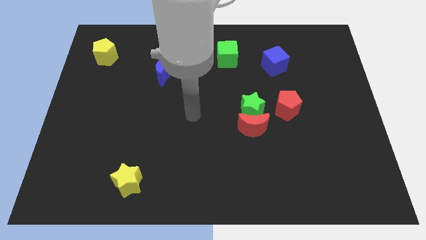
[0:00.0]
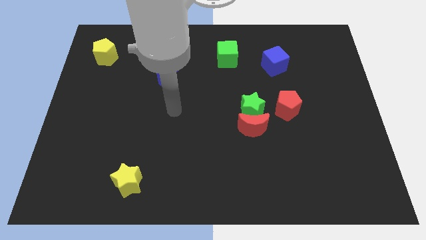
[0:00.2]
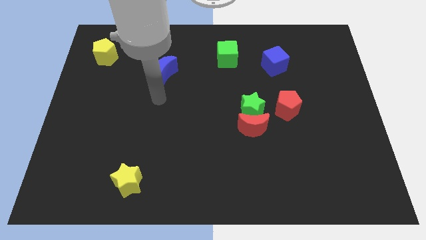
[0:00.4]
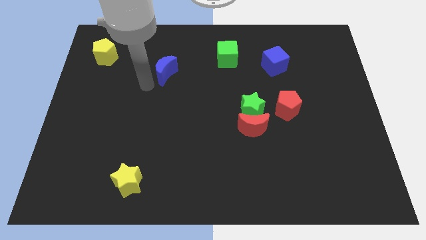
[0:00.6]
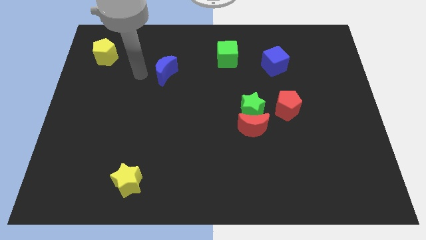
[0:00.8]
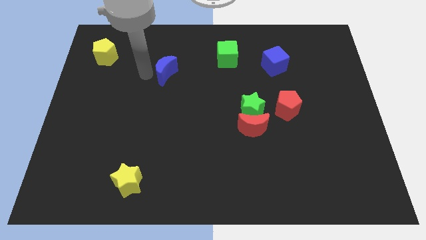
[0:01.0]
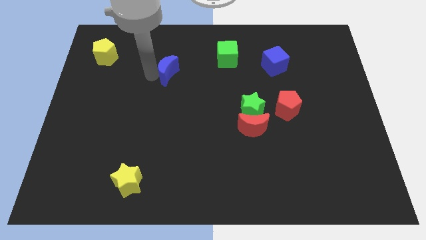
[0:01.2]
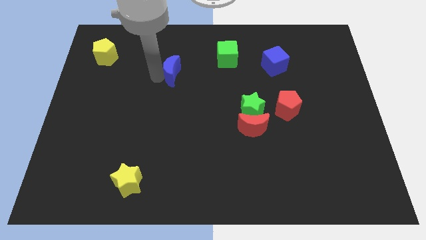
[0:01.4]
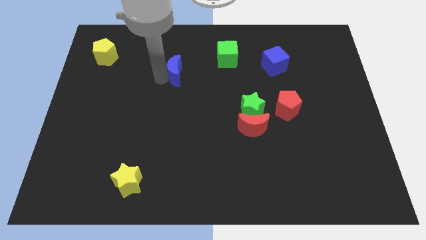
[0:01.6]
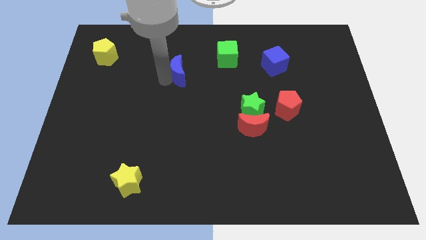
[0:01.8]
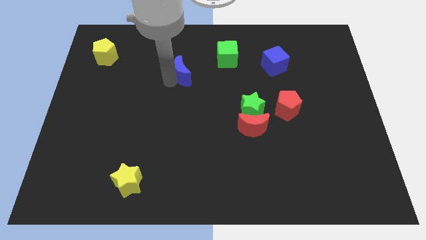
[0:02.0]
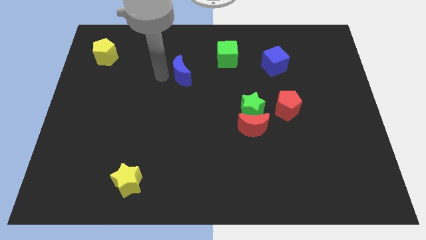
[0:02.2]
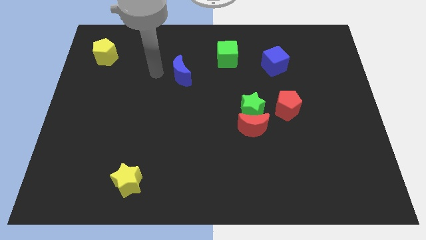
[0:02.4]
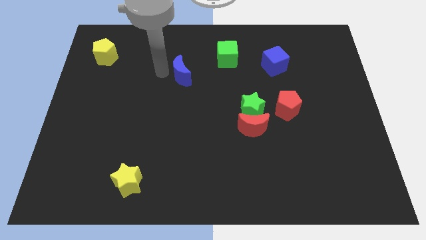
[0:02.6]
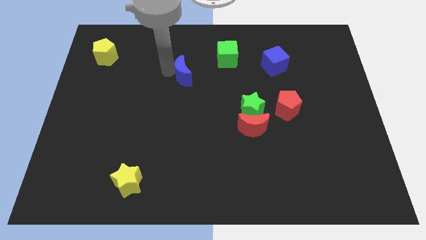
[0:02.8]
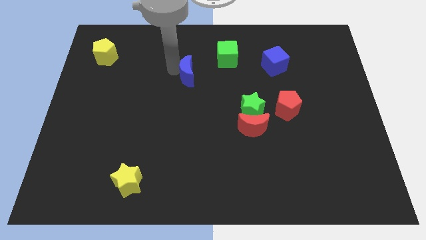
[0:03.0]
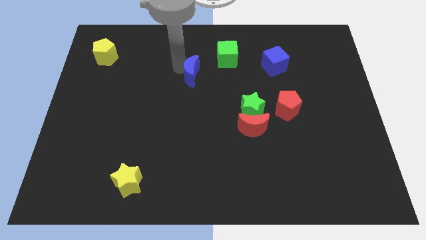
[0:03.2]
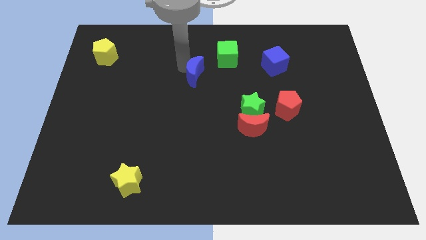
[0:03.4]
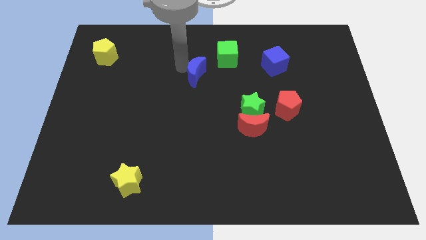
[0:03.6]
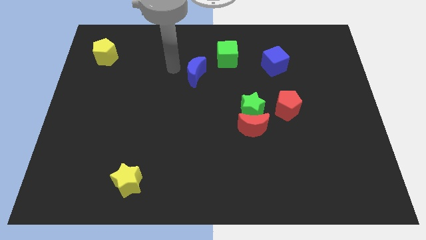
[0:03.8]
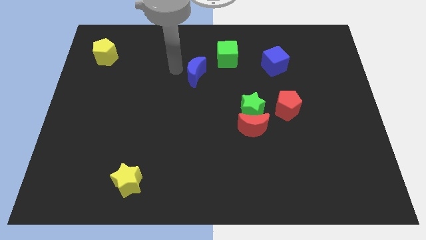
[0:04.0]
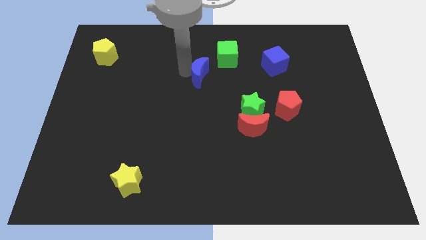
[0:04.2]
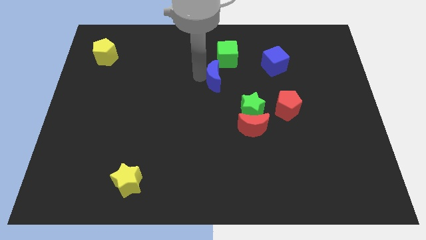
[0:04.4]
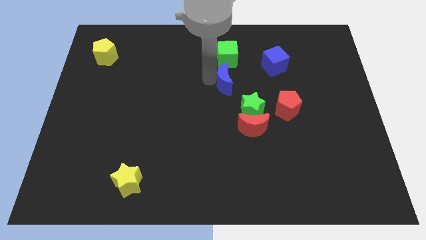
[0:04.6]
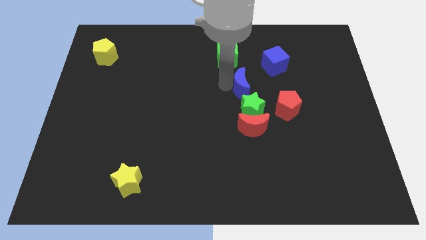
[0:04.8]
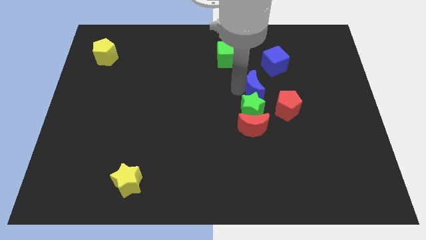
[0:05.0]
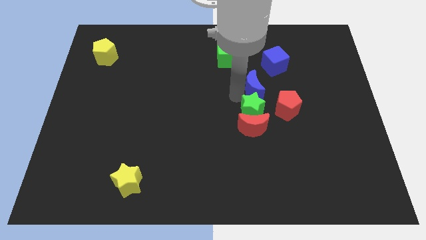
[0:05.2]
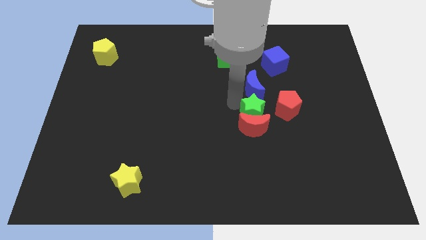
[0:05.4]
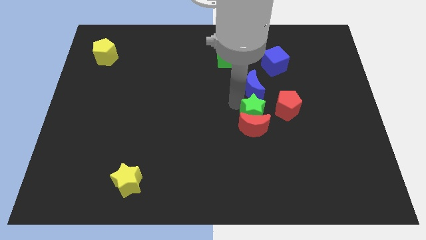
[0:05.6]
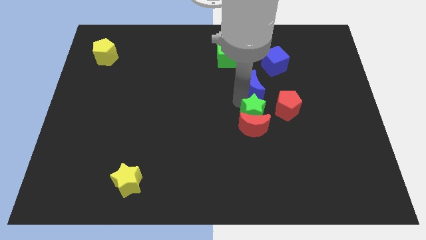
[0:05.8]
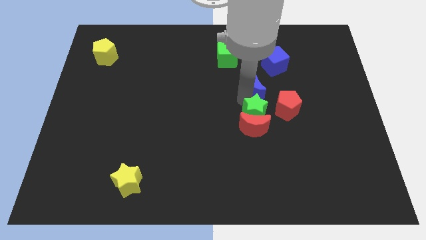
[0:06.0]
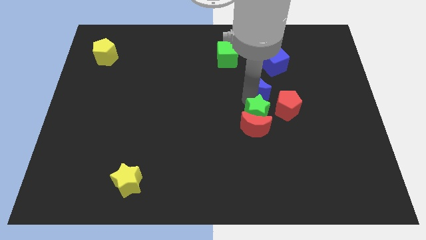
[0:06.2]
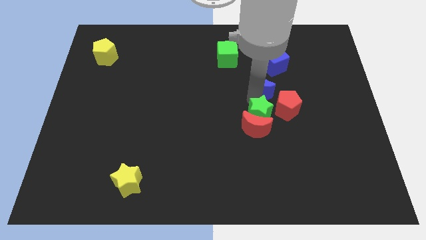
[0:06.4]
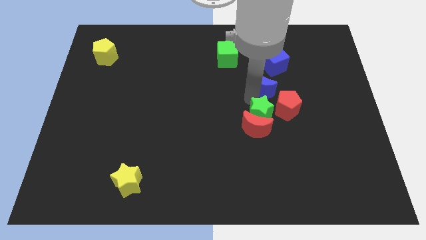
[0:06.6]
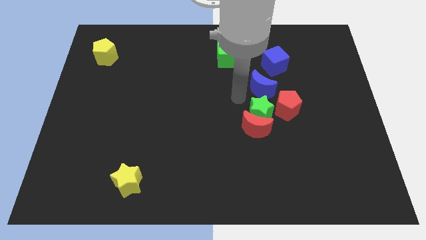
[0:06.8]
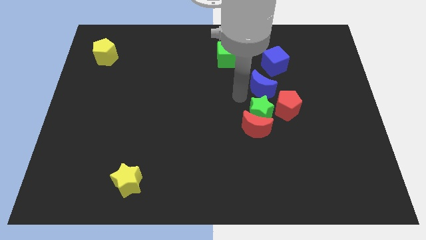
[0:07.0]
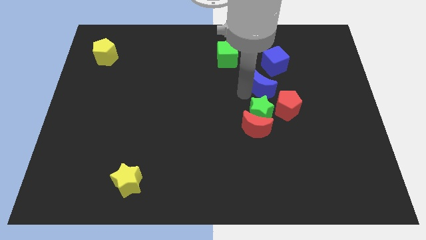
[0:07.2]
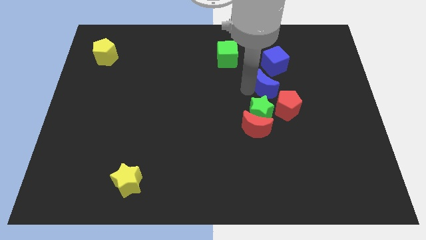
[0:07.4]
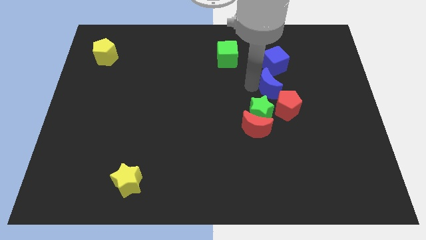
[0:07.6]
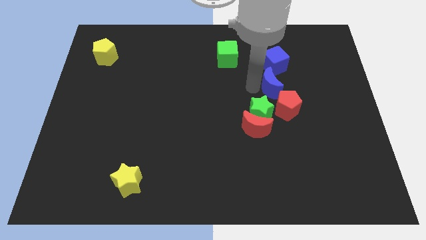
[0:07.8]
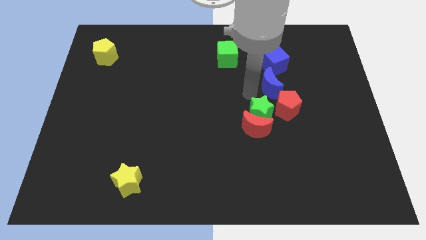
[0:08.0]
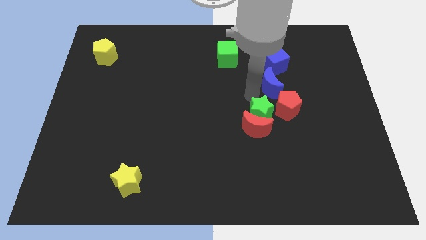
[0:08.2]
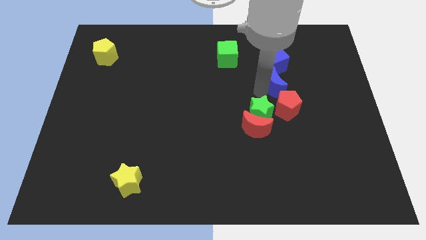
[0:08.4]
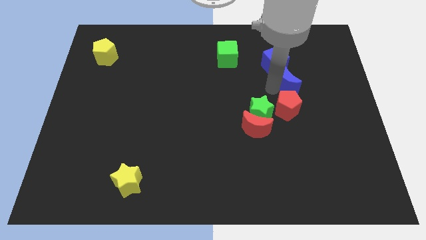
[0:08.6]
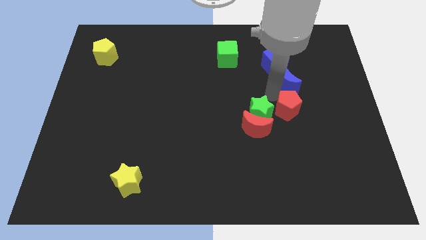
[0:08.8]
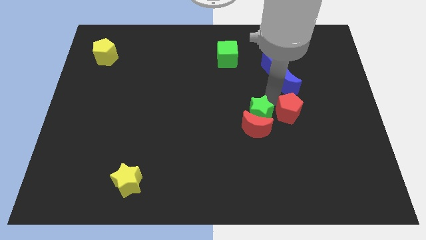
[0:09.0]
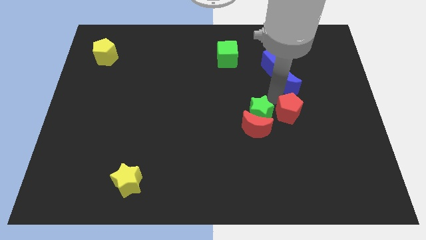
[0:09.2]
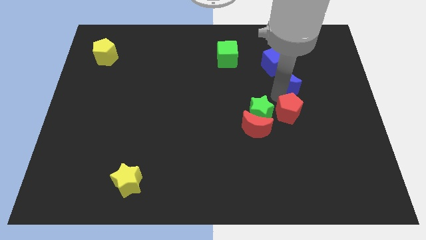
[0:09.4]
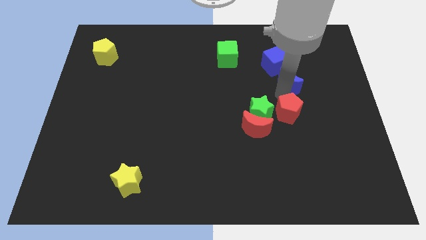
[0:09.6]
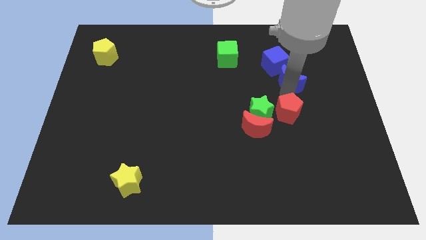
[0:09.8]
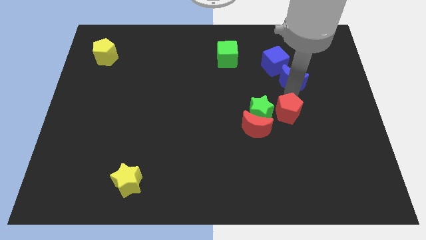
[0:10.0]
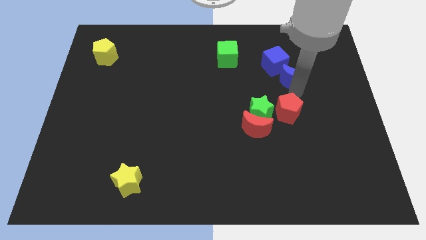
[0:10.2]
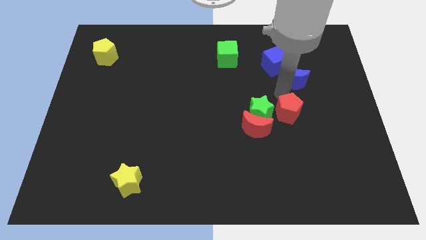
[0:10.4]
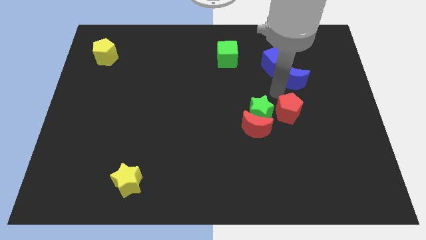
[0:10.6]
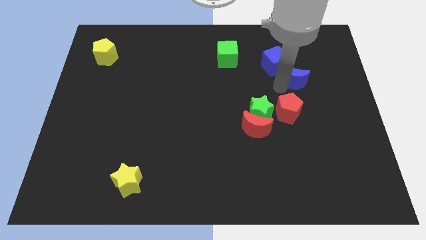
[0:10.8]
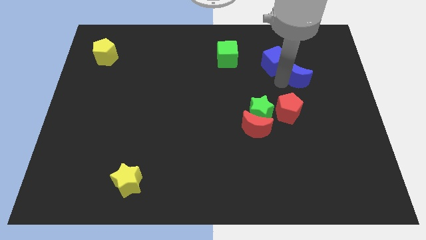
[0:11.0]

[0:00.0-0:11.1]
push the blue moon to the right side of the blue cube

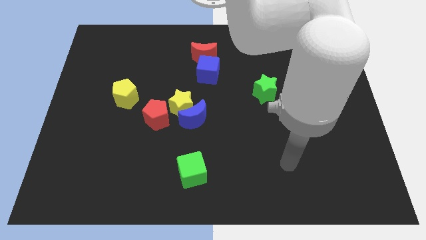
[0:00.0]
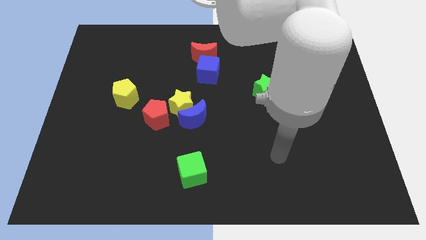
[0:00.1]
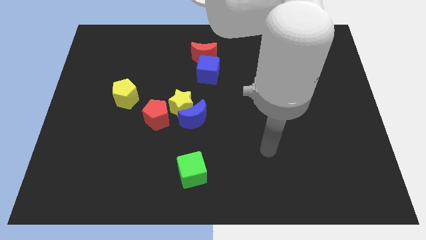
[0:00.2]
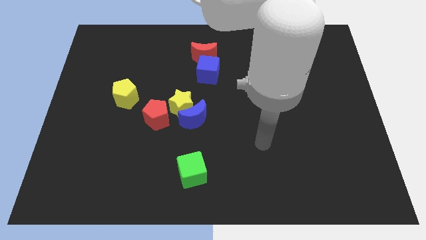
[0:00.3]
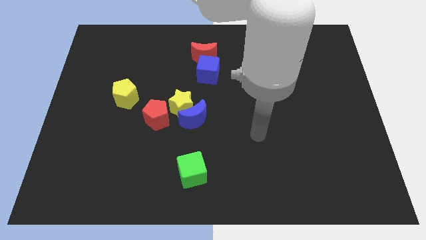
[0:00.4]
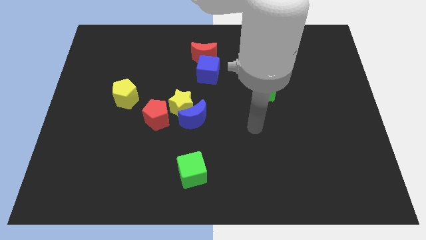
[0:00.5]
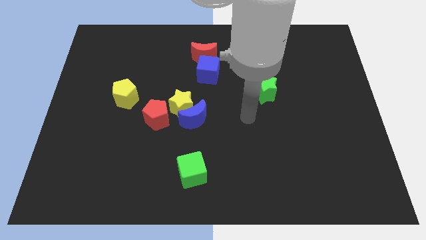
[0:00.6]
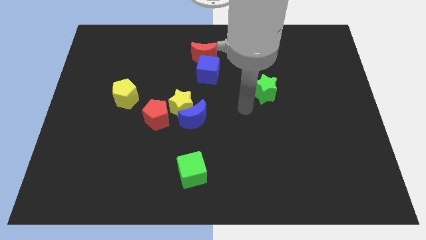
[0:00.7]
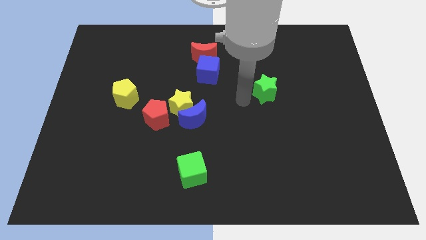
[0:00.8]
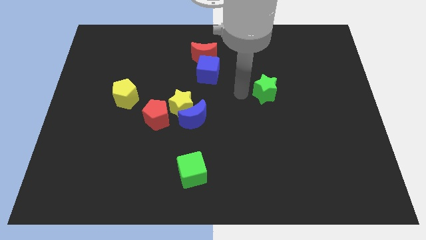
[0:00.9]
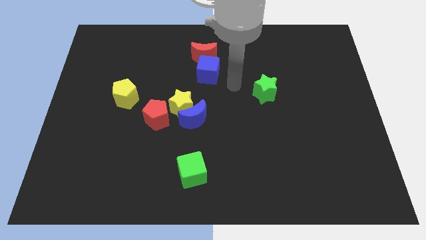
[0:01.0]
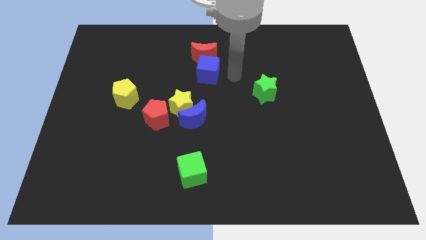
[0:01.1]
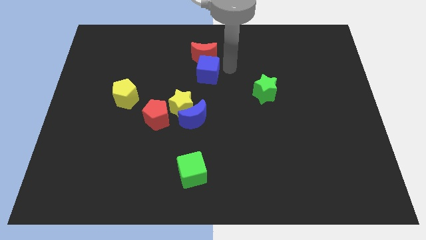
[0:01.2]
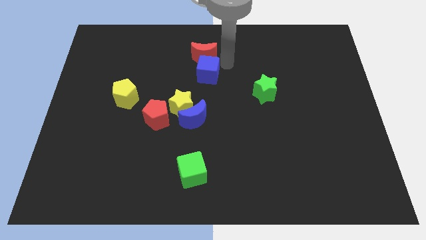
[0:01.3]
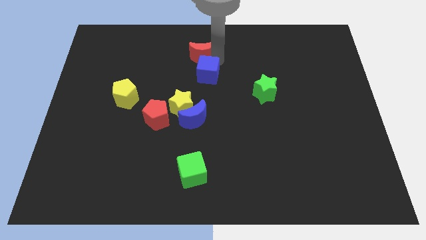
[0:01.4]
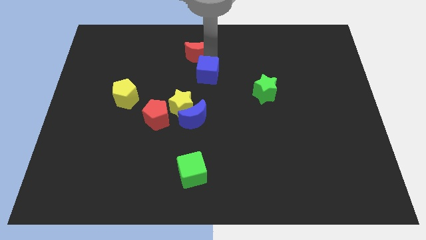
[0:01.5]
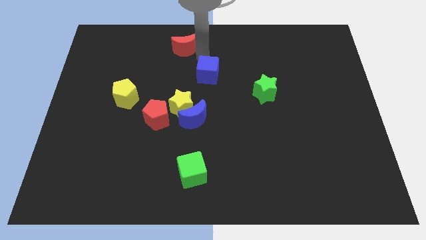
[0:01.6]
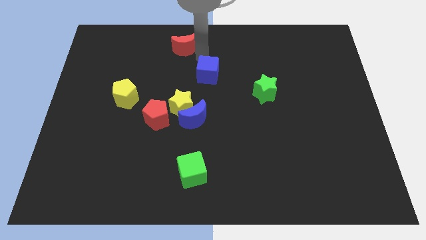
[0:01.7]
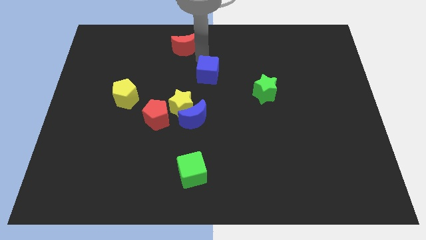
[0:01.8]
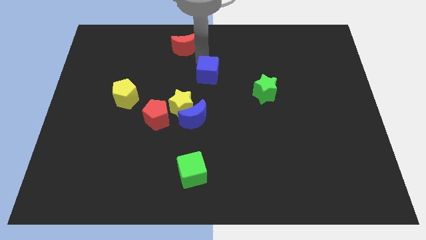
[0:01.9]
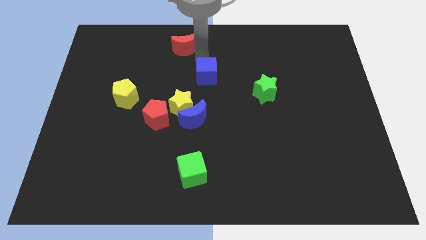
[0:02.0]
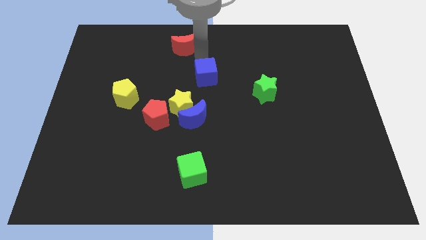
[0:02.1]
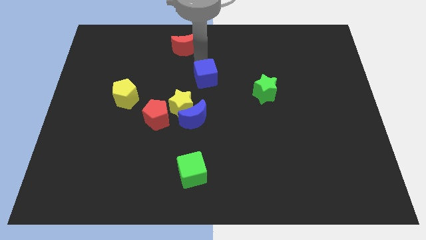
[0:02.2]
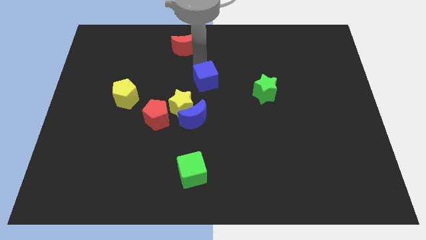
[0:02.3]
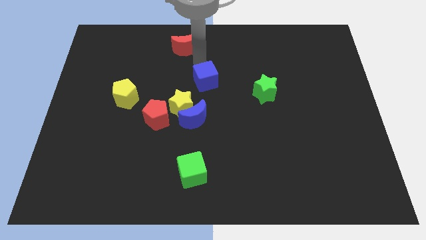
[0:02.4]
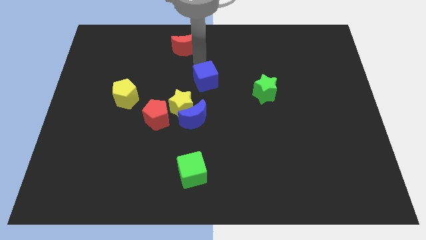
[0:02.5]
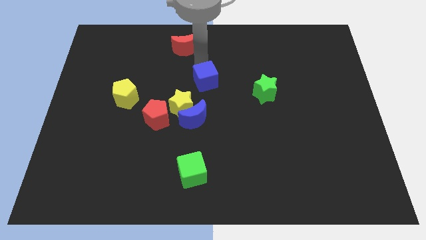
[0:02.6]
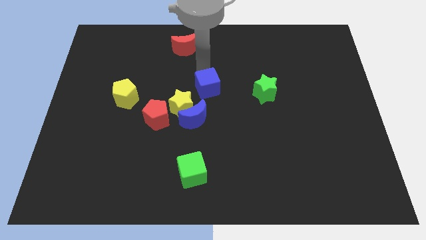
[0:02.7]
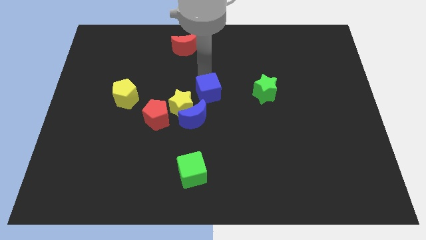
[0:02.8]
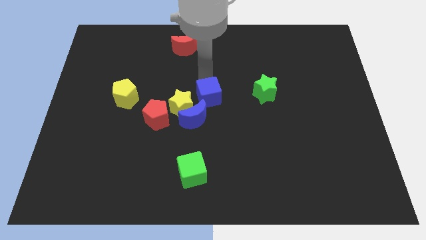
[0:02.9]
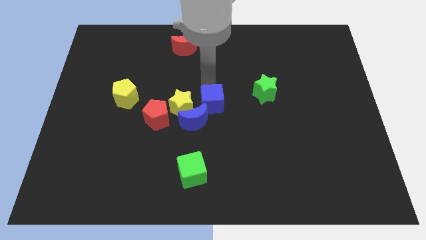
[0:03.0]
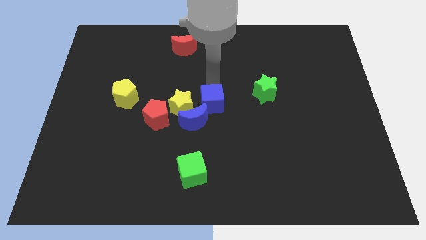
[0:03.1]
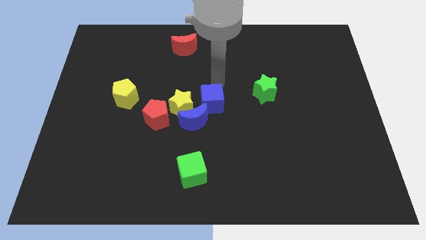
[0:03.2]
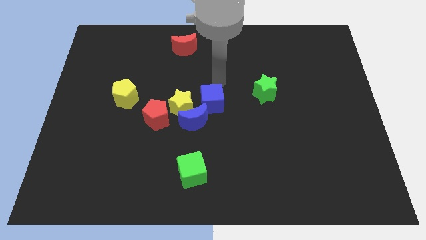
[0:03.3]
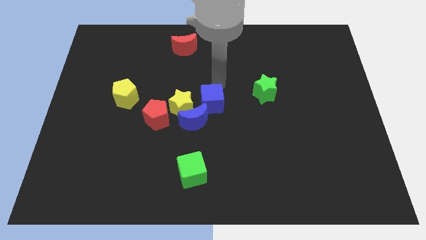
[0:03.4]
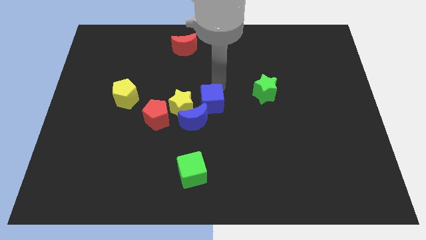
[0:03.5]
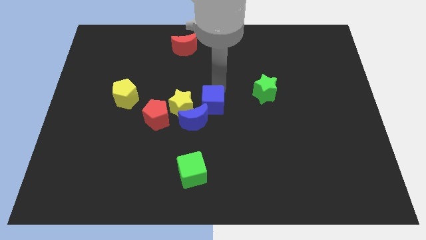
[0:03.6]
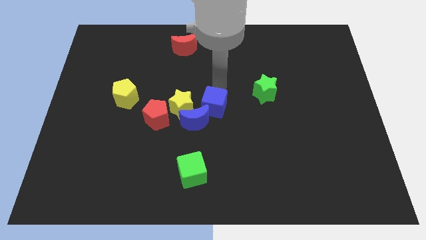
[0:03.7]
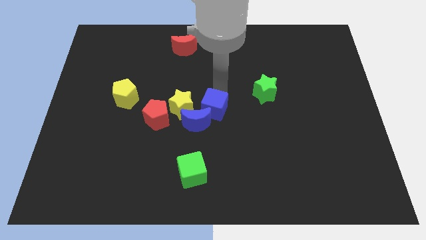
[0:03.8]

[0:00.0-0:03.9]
push the blue cube to the bottom right of the yellow star
